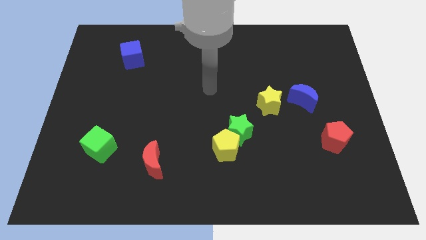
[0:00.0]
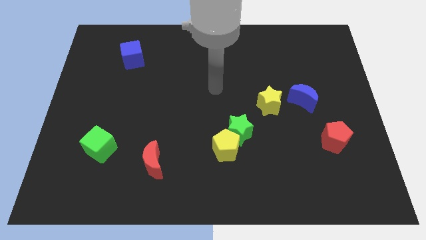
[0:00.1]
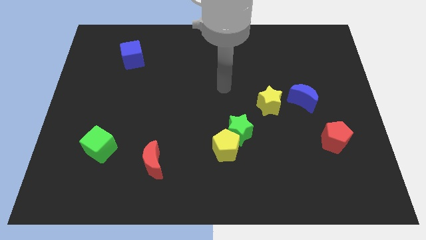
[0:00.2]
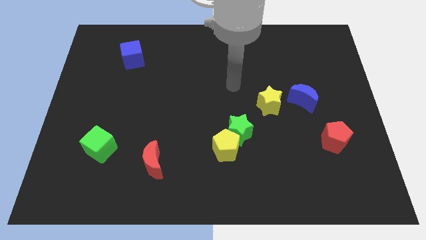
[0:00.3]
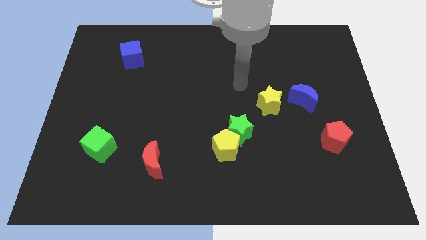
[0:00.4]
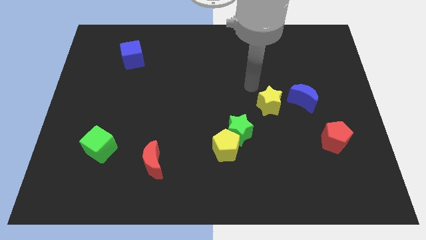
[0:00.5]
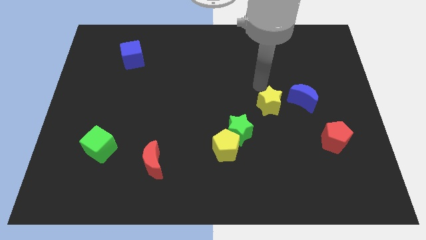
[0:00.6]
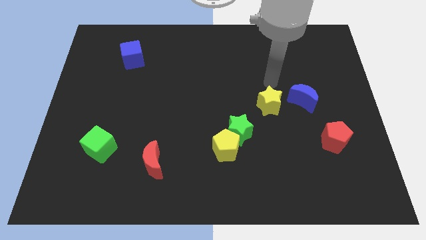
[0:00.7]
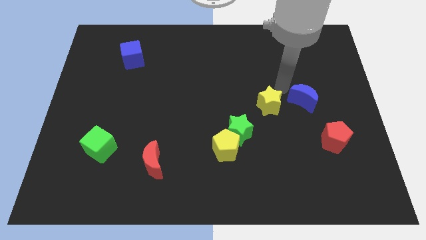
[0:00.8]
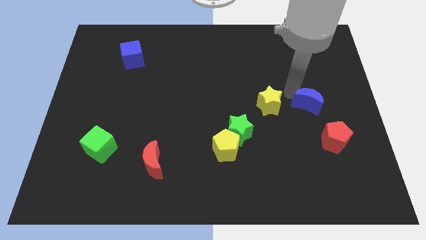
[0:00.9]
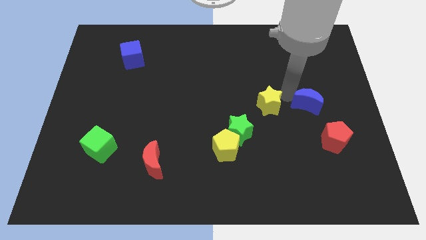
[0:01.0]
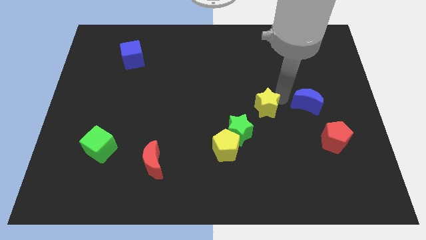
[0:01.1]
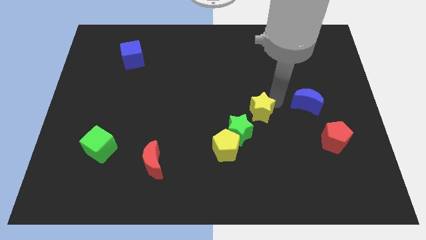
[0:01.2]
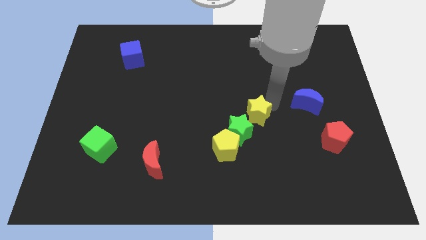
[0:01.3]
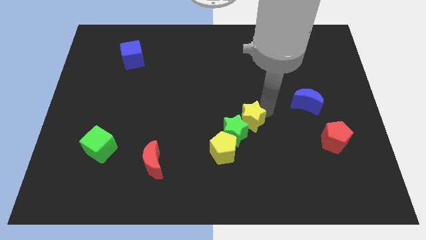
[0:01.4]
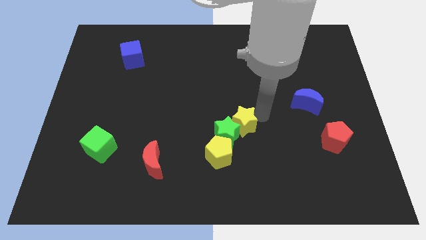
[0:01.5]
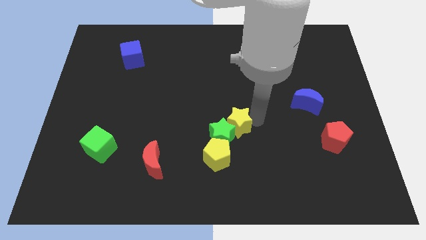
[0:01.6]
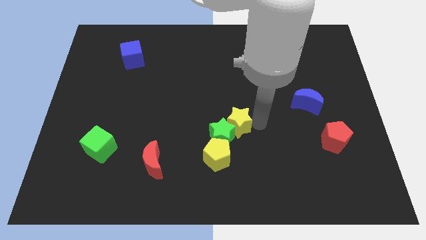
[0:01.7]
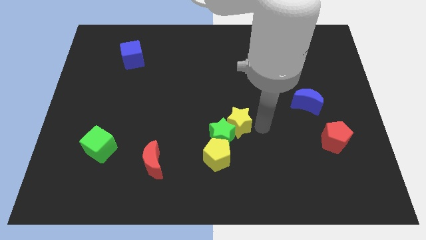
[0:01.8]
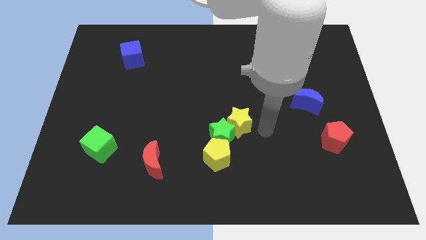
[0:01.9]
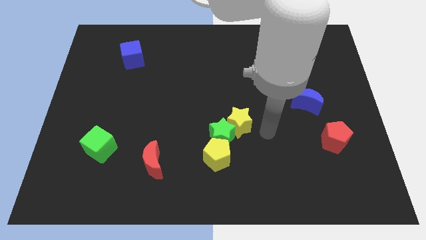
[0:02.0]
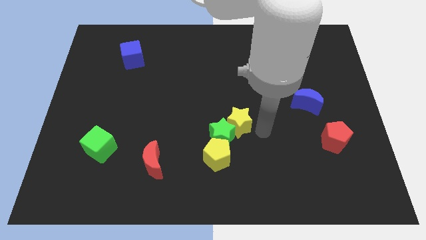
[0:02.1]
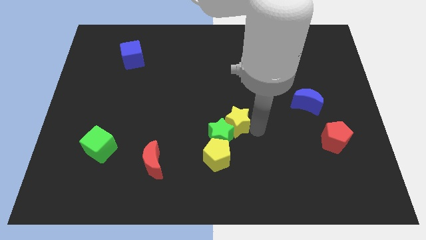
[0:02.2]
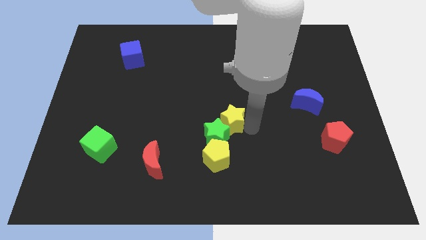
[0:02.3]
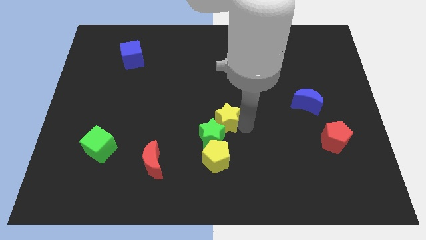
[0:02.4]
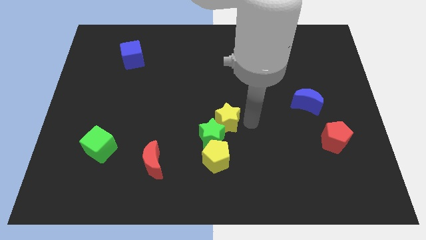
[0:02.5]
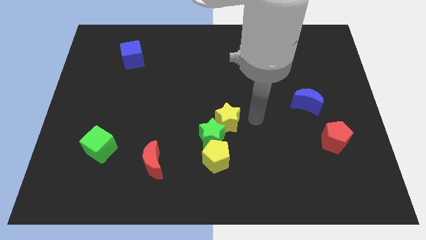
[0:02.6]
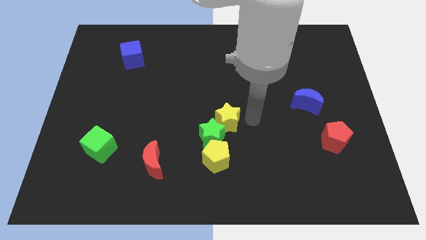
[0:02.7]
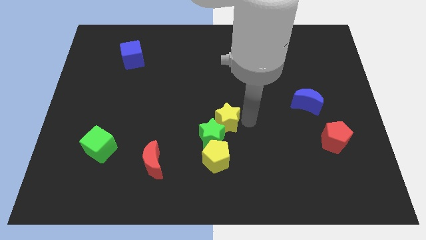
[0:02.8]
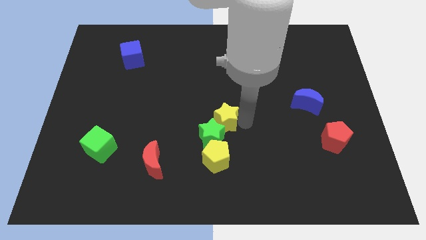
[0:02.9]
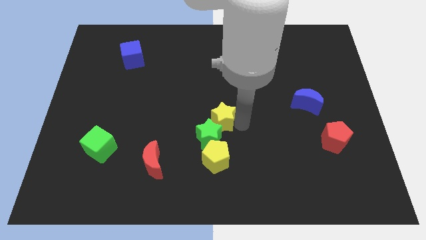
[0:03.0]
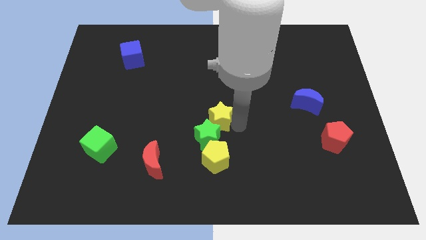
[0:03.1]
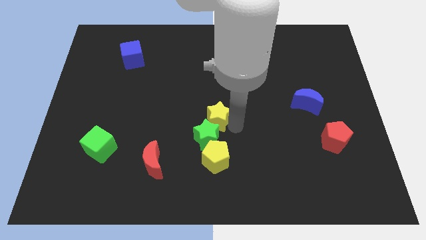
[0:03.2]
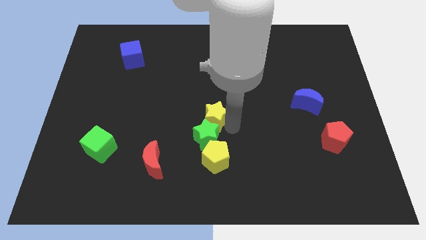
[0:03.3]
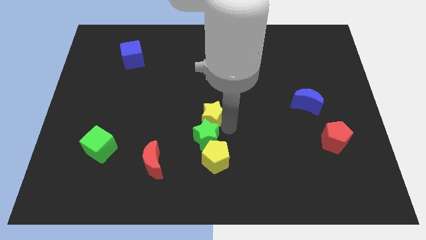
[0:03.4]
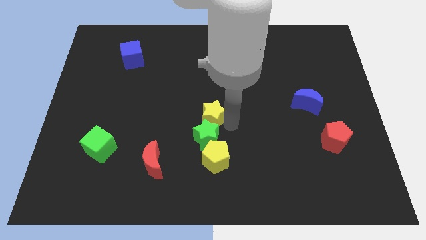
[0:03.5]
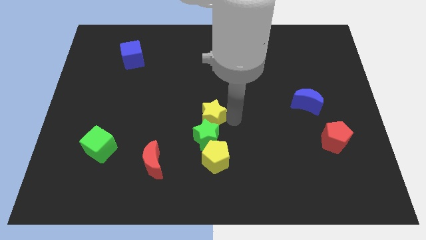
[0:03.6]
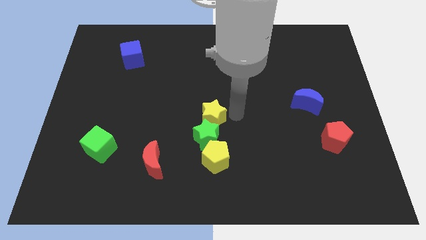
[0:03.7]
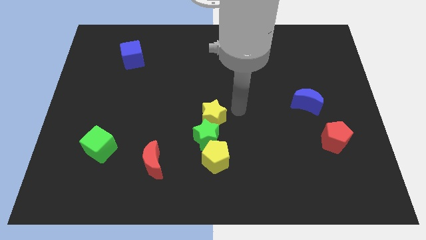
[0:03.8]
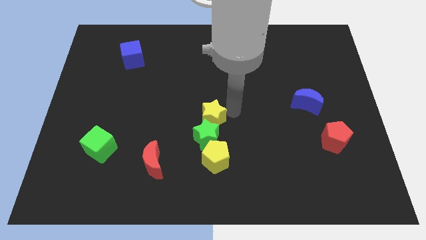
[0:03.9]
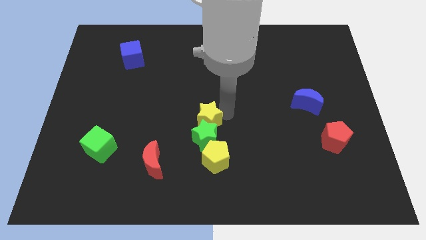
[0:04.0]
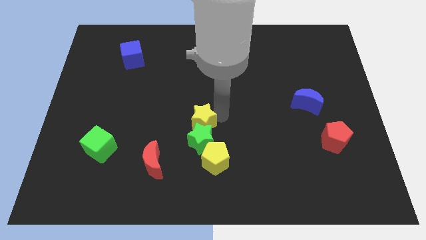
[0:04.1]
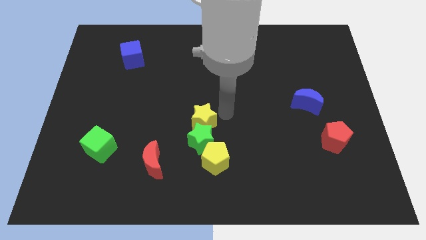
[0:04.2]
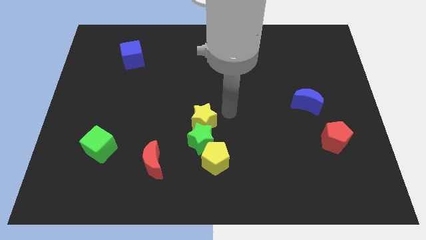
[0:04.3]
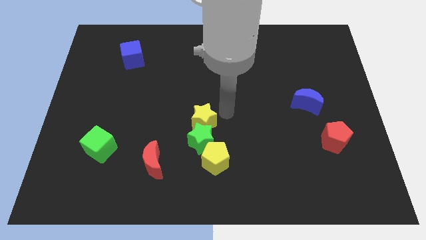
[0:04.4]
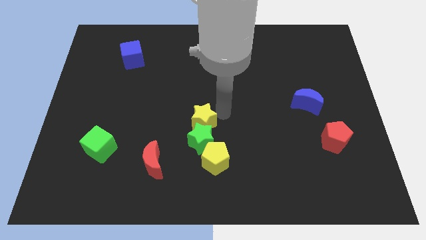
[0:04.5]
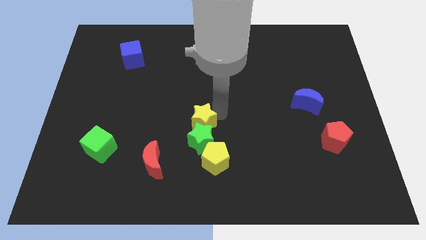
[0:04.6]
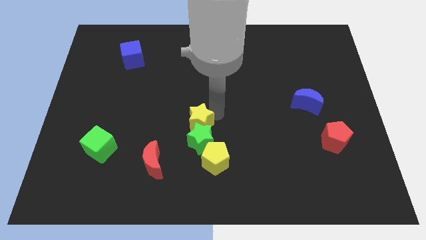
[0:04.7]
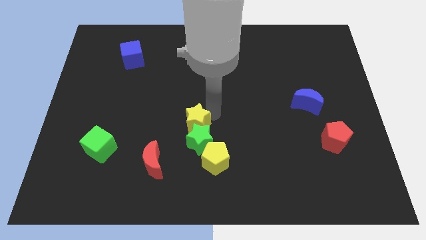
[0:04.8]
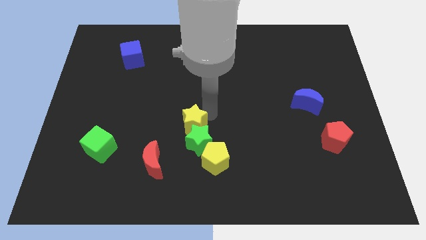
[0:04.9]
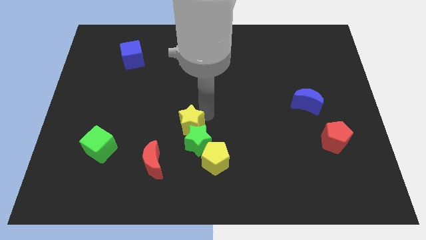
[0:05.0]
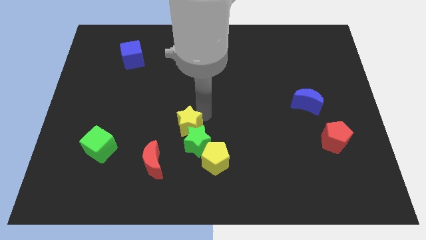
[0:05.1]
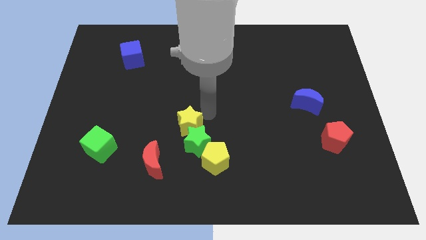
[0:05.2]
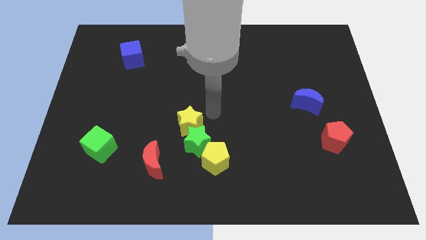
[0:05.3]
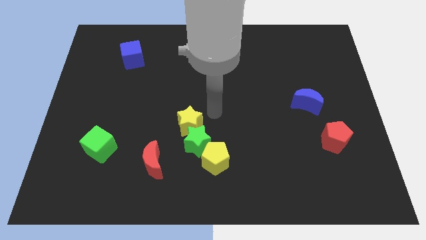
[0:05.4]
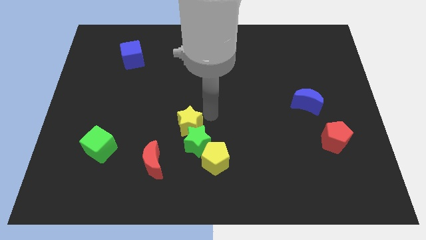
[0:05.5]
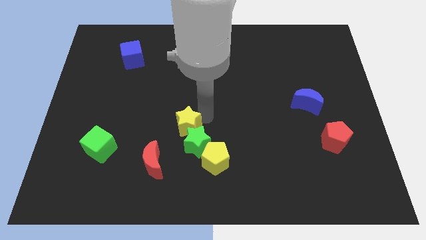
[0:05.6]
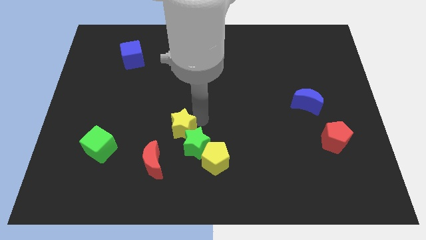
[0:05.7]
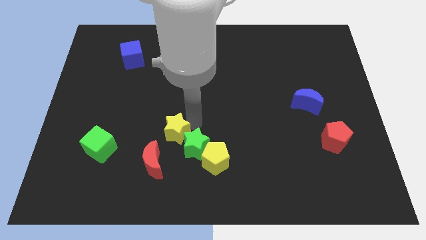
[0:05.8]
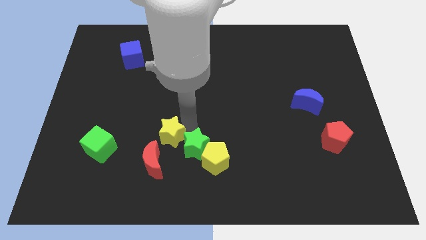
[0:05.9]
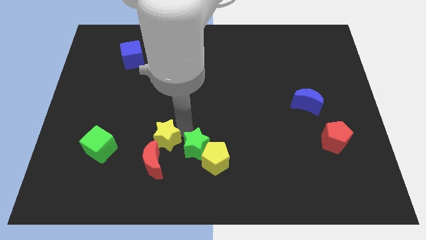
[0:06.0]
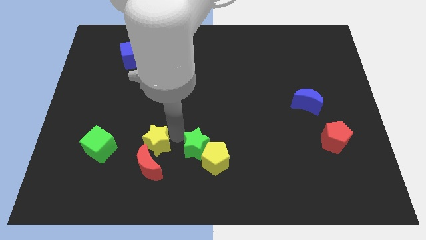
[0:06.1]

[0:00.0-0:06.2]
move the yellow star to the top left of the red moon
